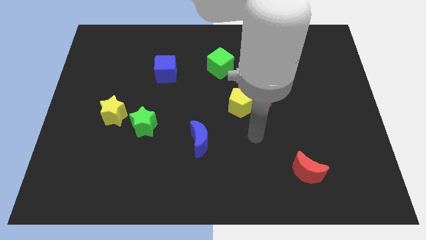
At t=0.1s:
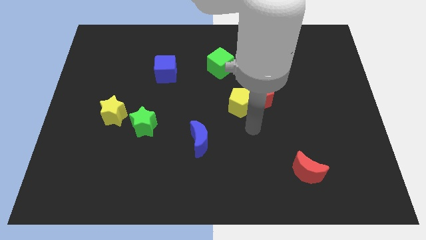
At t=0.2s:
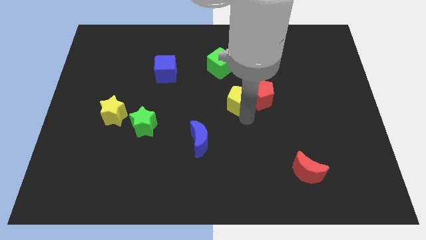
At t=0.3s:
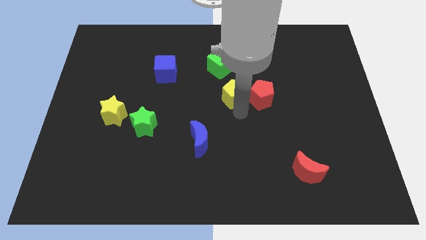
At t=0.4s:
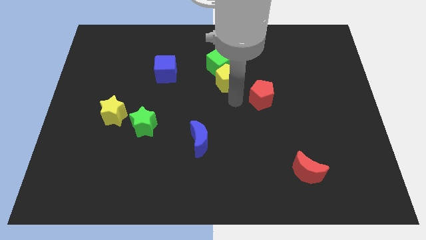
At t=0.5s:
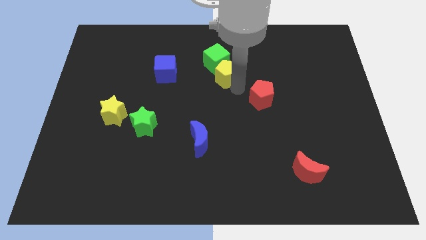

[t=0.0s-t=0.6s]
separate the red pentagon from the yellow pentagon

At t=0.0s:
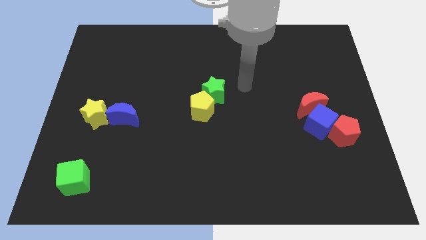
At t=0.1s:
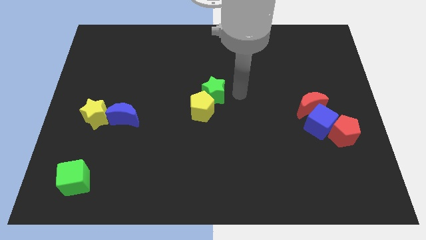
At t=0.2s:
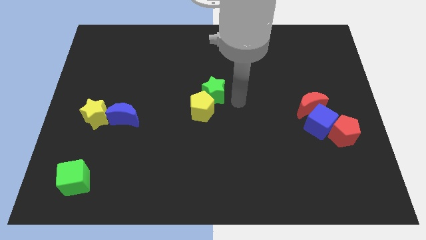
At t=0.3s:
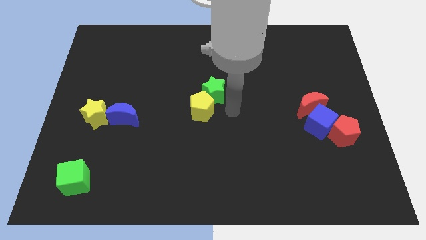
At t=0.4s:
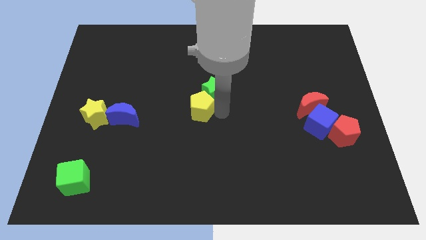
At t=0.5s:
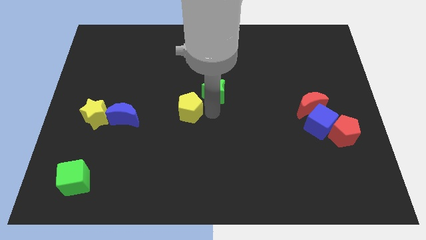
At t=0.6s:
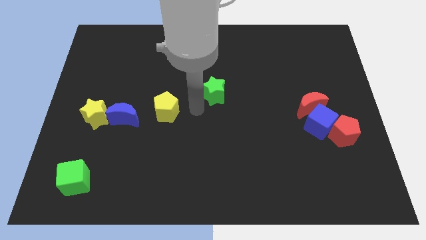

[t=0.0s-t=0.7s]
move the green star away from the yellow pentagon

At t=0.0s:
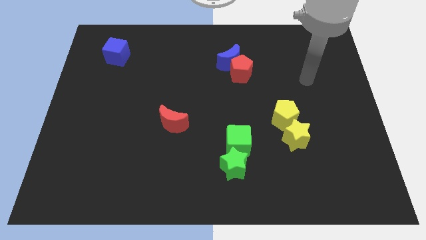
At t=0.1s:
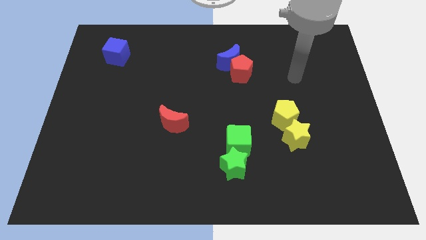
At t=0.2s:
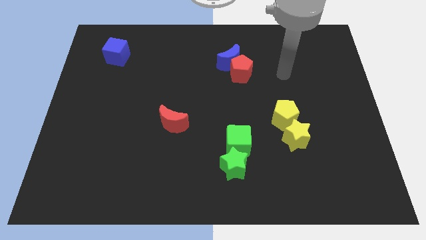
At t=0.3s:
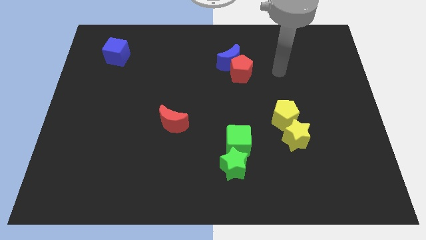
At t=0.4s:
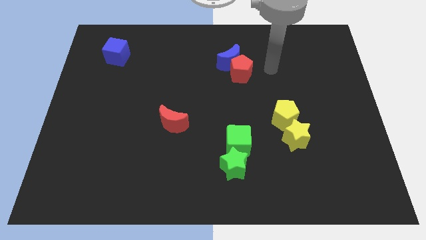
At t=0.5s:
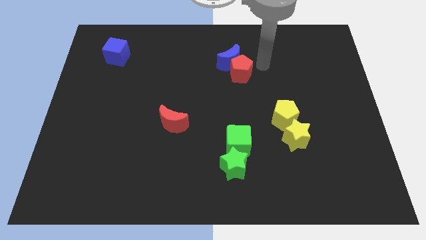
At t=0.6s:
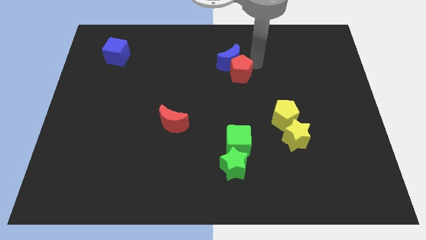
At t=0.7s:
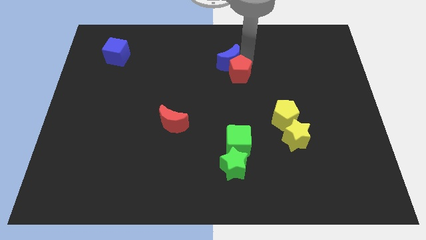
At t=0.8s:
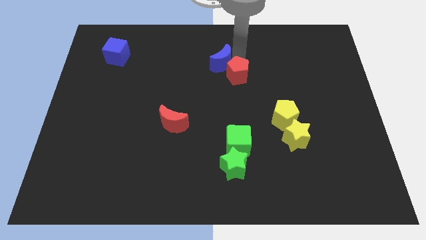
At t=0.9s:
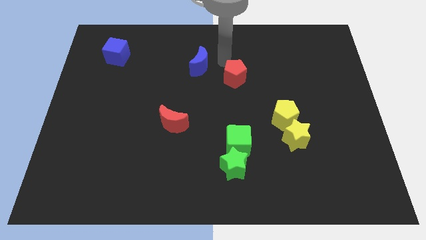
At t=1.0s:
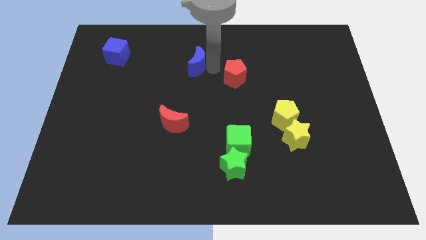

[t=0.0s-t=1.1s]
separate the red pentagon from the blue moon

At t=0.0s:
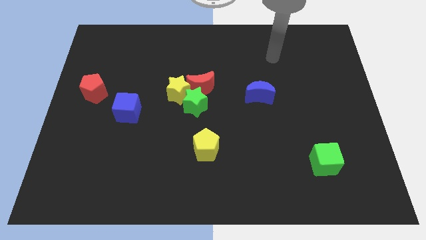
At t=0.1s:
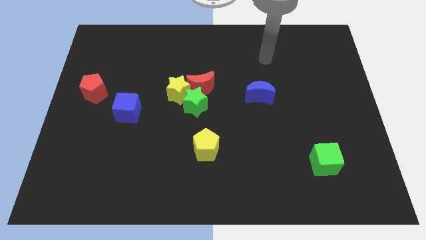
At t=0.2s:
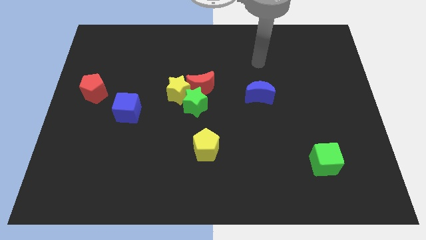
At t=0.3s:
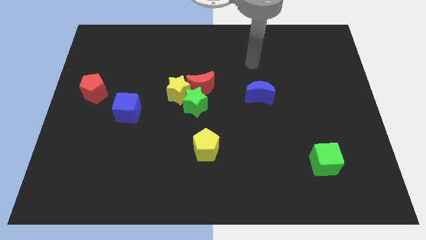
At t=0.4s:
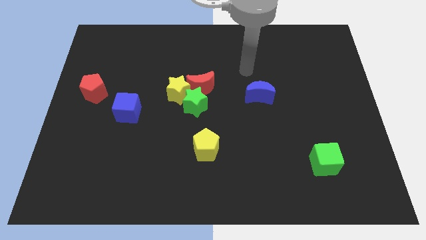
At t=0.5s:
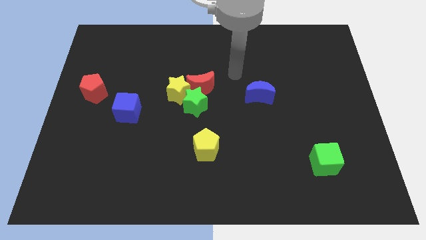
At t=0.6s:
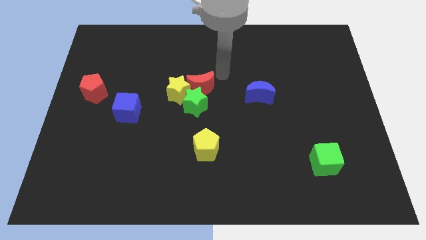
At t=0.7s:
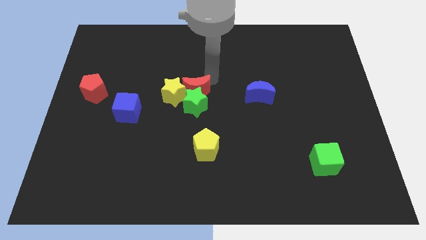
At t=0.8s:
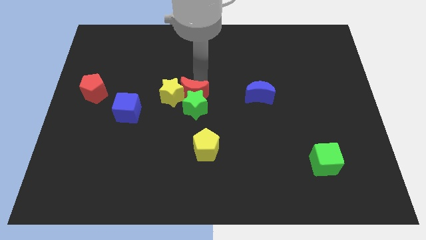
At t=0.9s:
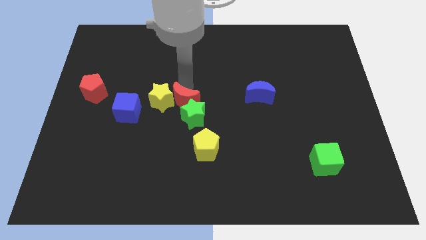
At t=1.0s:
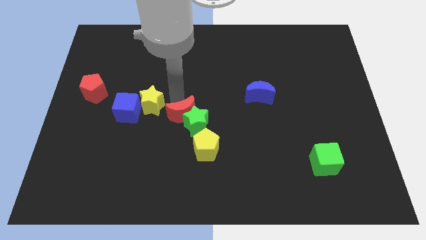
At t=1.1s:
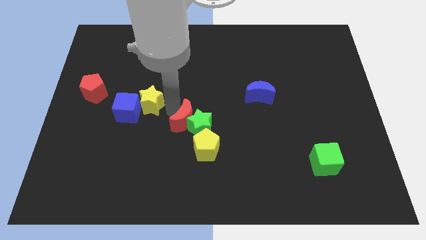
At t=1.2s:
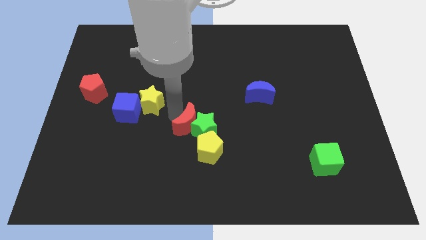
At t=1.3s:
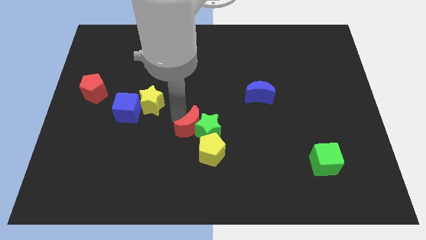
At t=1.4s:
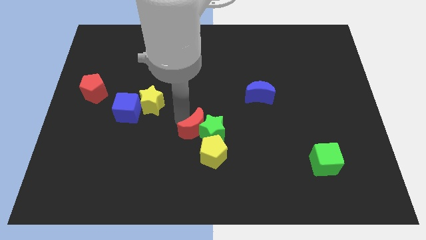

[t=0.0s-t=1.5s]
move the green star away from the yellow star and red moon

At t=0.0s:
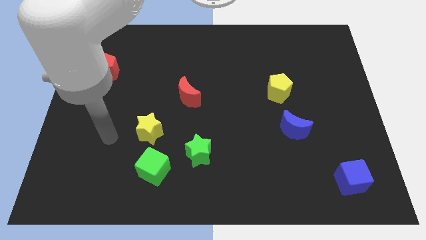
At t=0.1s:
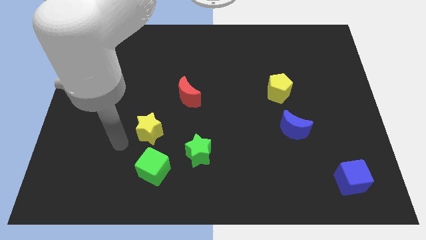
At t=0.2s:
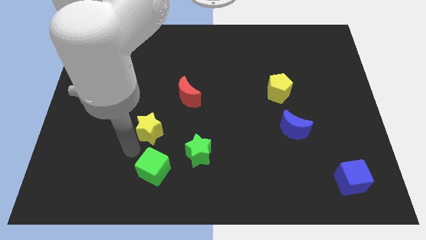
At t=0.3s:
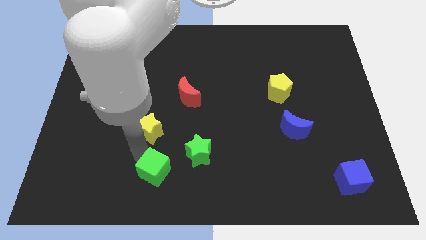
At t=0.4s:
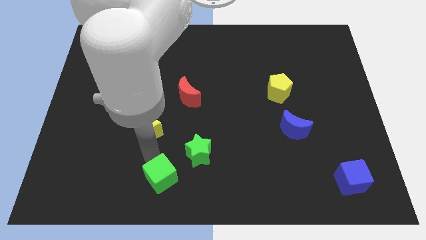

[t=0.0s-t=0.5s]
separate the yellow star from the green cube

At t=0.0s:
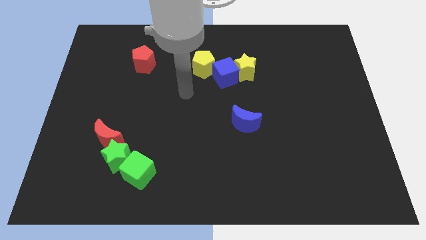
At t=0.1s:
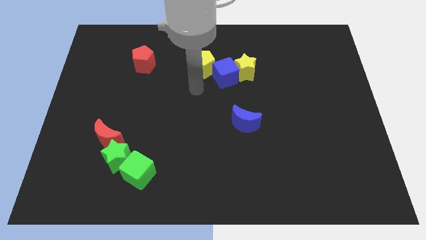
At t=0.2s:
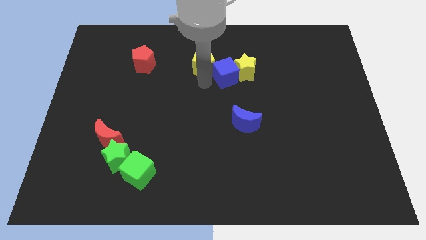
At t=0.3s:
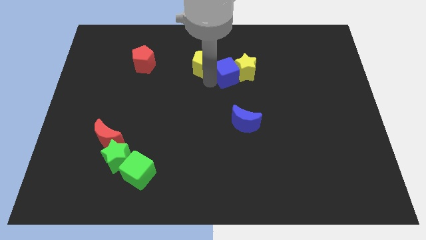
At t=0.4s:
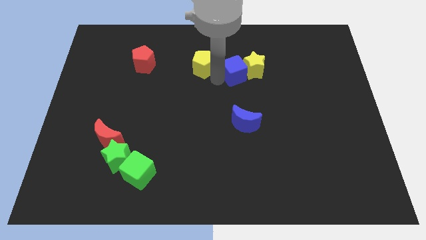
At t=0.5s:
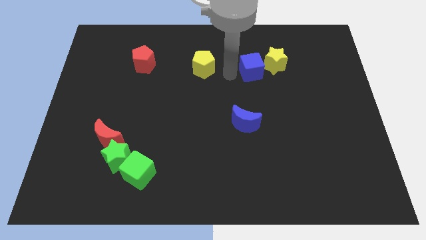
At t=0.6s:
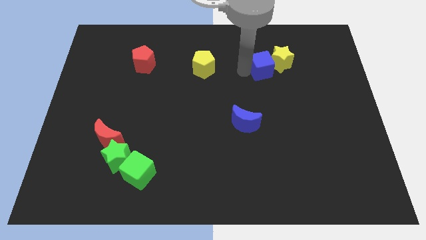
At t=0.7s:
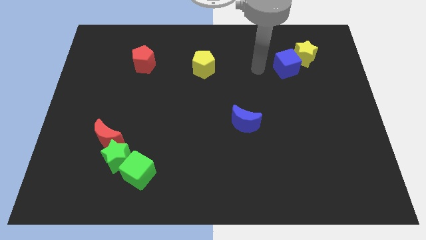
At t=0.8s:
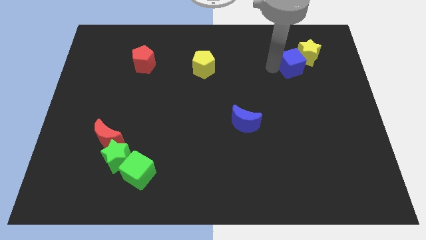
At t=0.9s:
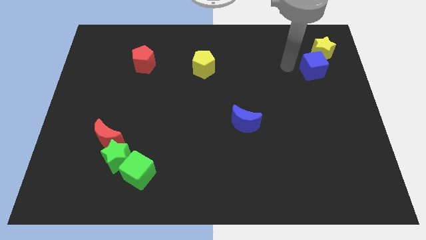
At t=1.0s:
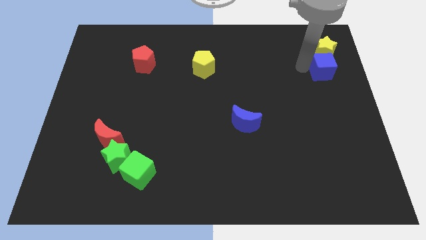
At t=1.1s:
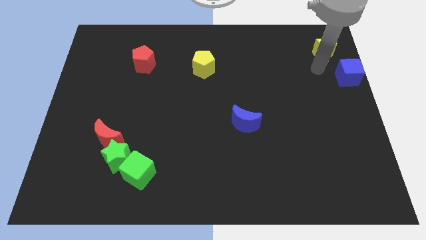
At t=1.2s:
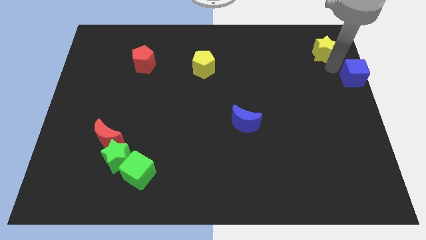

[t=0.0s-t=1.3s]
move the yellow star away from the blue cube

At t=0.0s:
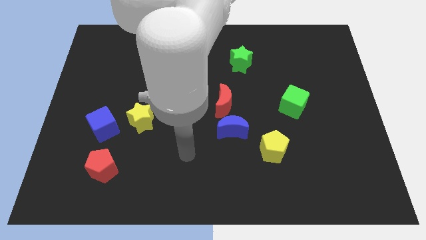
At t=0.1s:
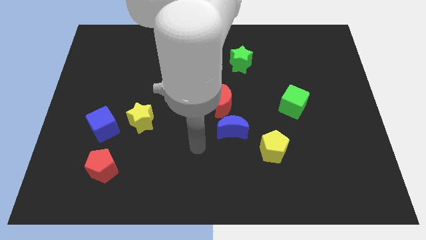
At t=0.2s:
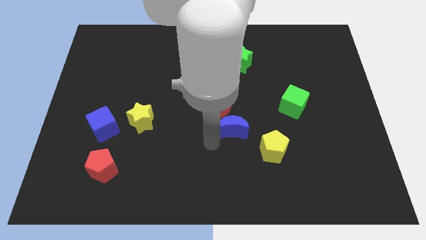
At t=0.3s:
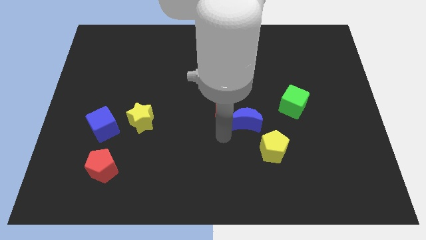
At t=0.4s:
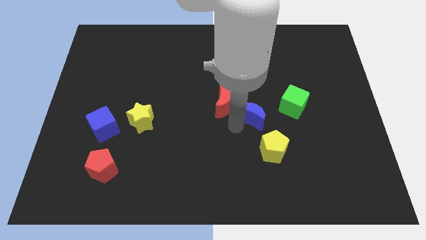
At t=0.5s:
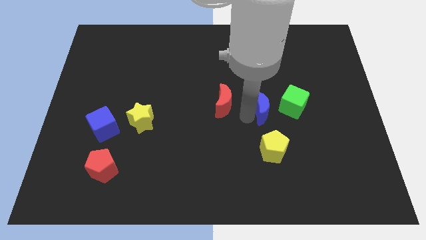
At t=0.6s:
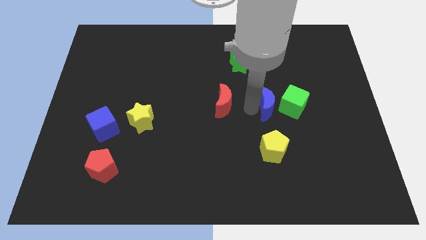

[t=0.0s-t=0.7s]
pull the red moon apart from the blue moon

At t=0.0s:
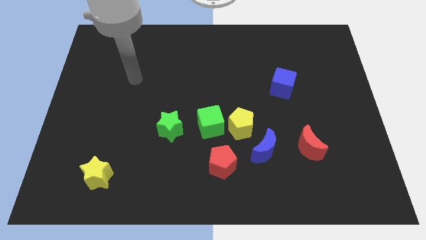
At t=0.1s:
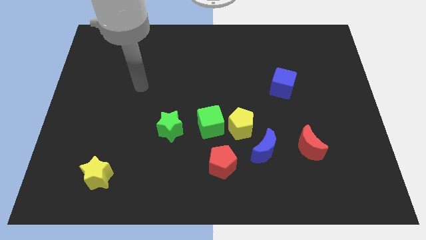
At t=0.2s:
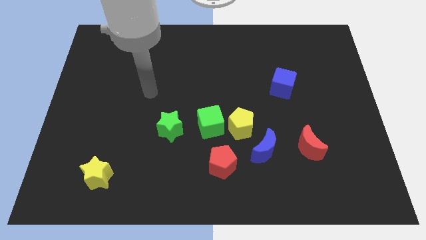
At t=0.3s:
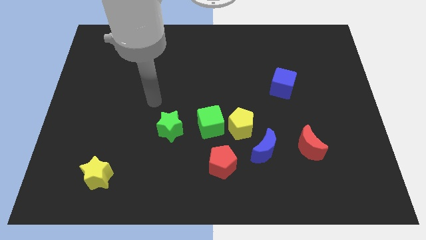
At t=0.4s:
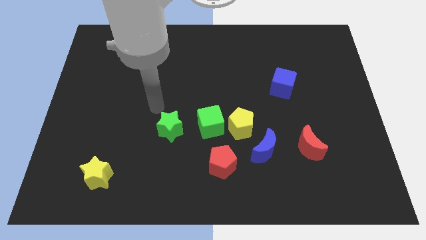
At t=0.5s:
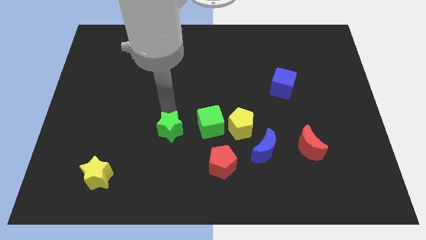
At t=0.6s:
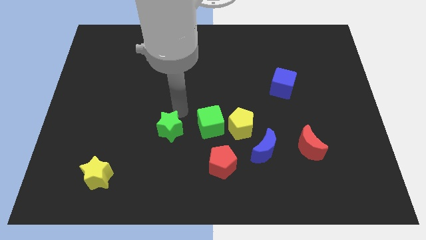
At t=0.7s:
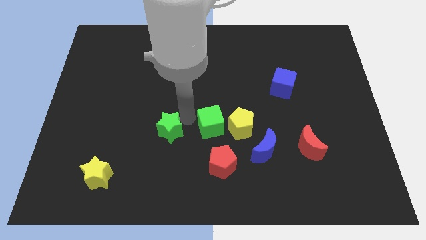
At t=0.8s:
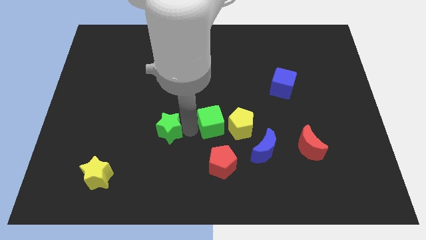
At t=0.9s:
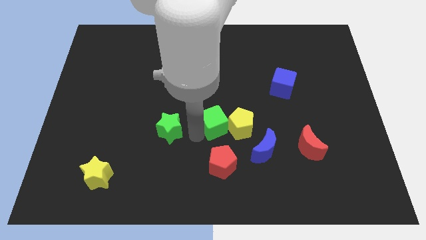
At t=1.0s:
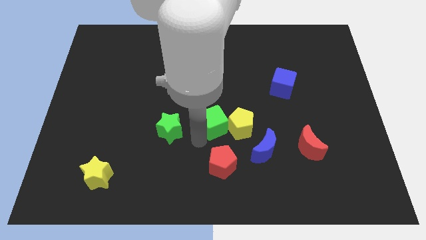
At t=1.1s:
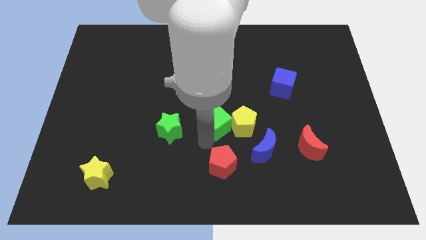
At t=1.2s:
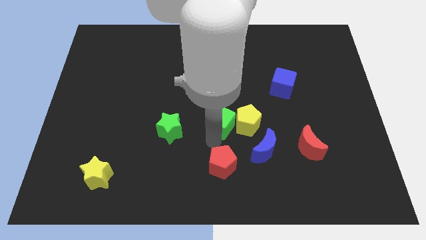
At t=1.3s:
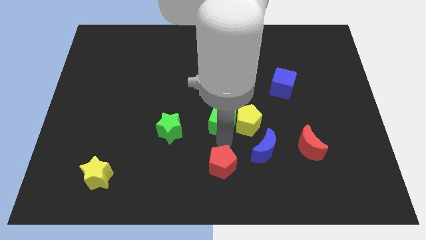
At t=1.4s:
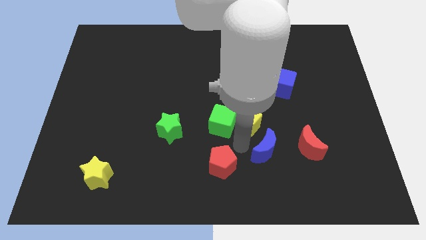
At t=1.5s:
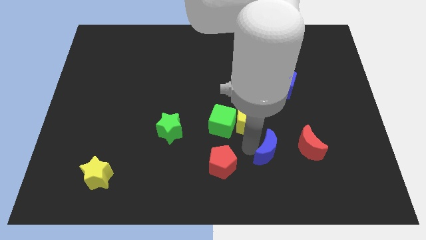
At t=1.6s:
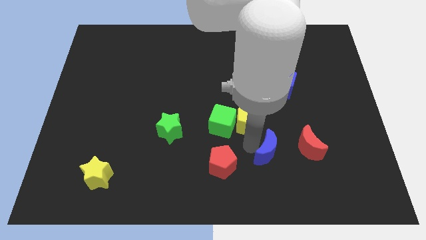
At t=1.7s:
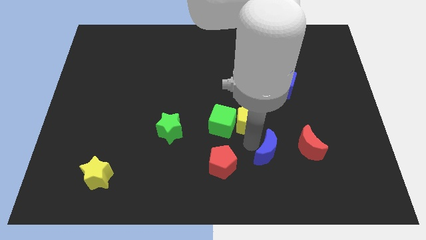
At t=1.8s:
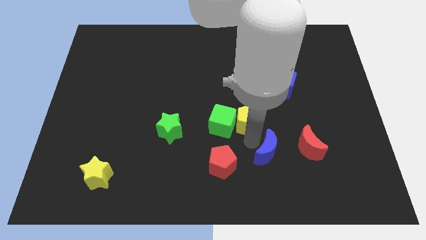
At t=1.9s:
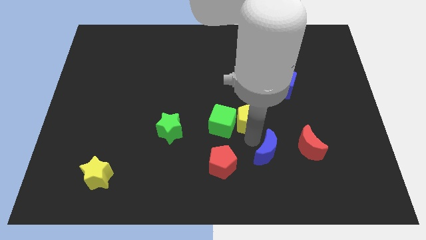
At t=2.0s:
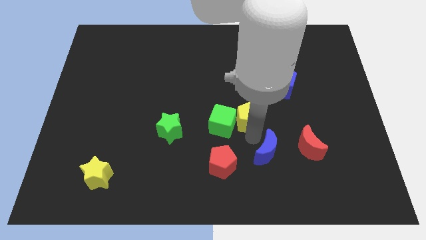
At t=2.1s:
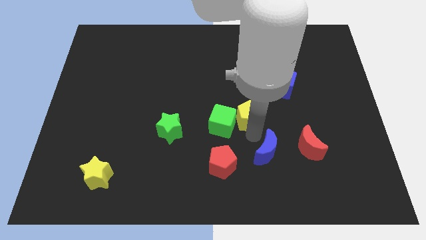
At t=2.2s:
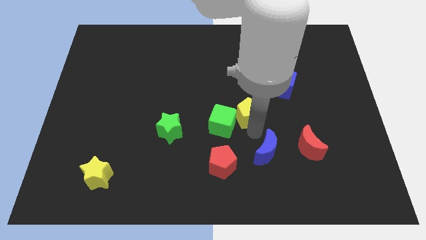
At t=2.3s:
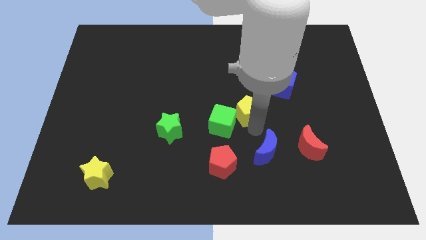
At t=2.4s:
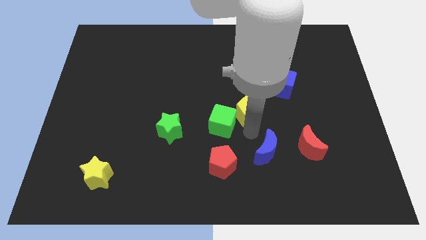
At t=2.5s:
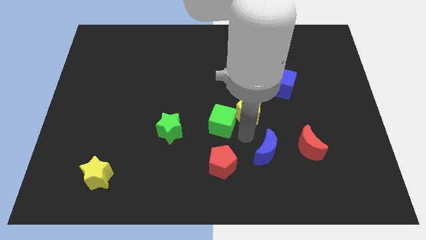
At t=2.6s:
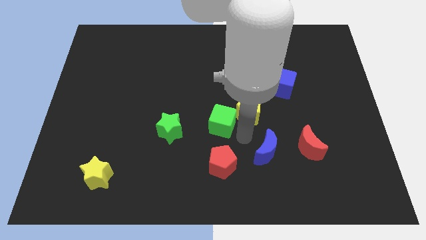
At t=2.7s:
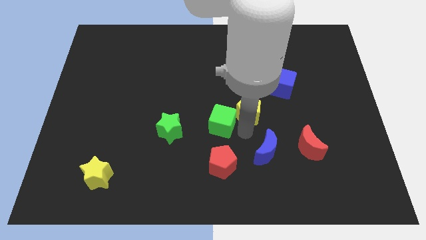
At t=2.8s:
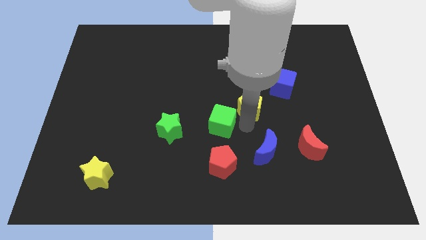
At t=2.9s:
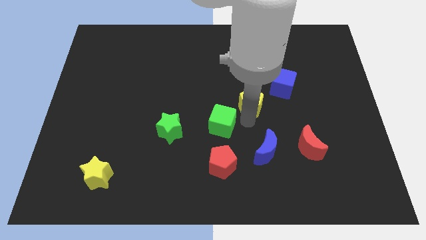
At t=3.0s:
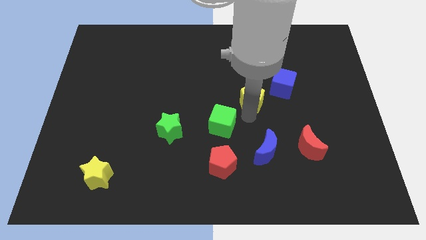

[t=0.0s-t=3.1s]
pull the yellow pentagon apart from the green cube and blue moon
